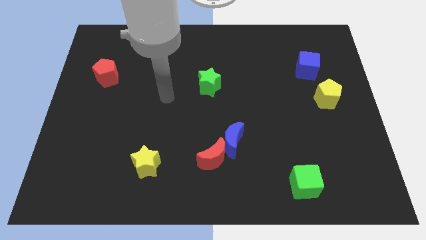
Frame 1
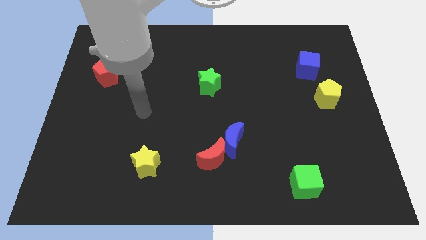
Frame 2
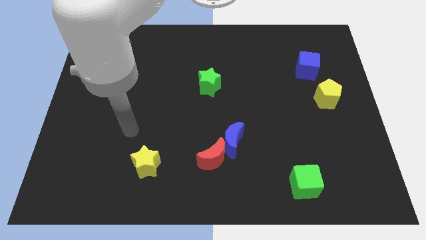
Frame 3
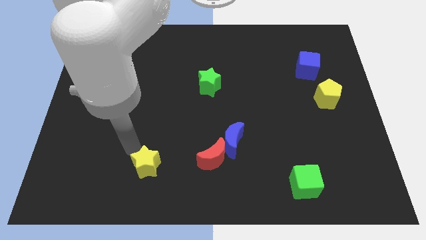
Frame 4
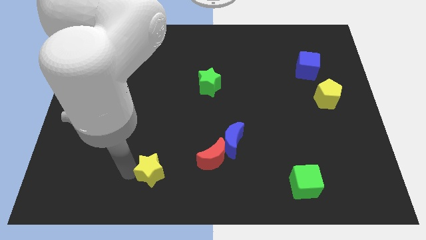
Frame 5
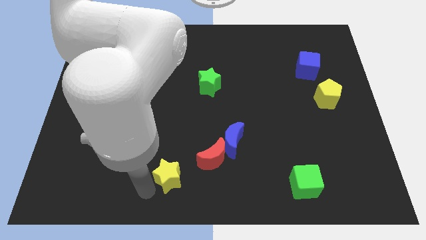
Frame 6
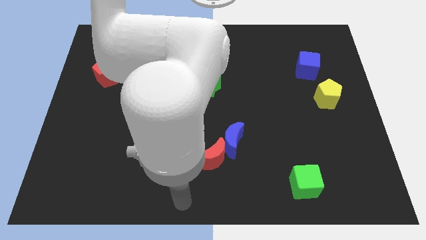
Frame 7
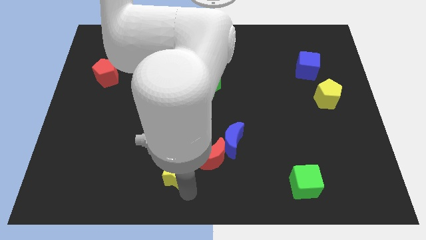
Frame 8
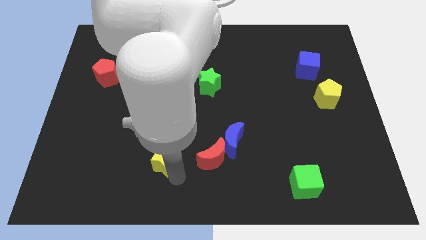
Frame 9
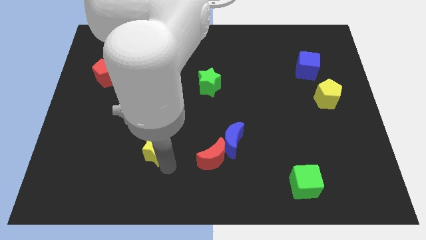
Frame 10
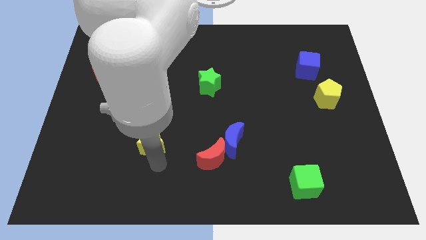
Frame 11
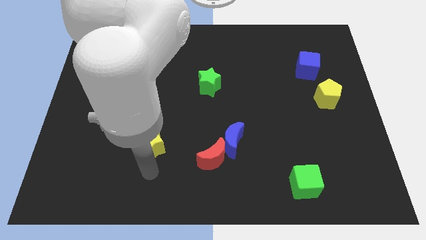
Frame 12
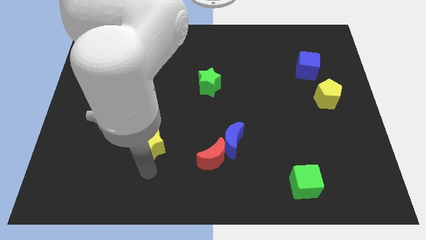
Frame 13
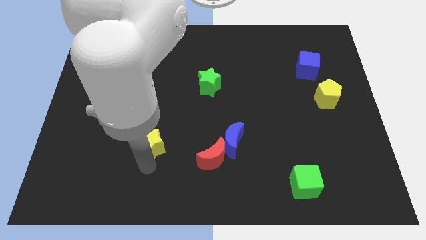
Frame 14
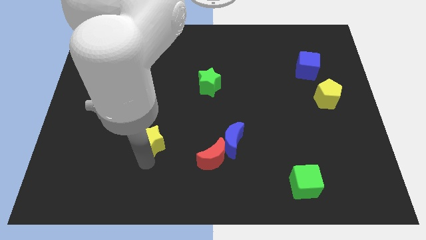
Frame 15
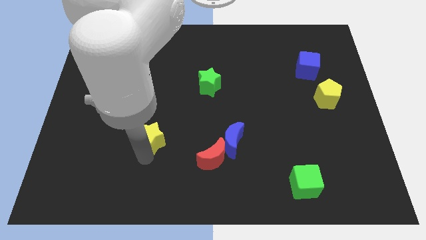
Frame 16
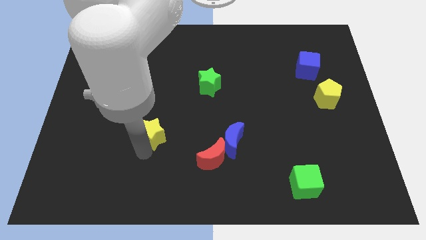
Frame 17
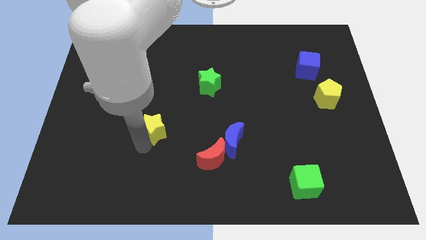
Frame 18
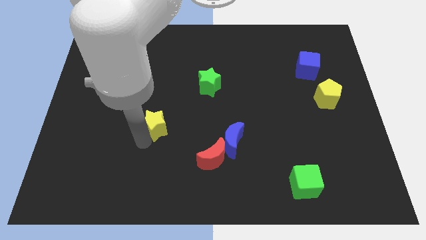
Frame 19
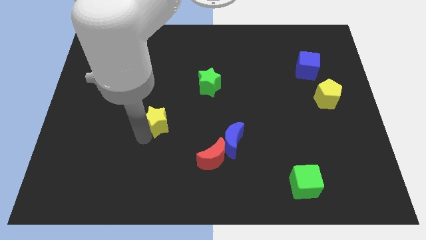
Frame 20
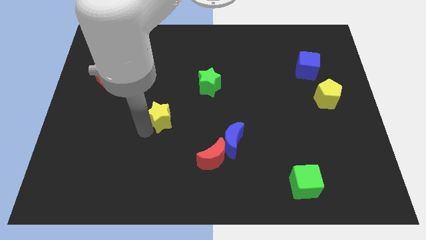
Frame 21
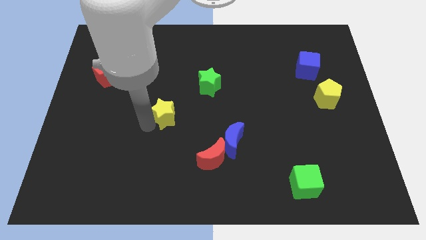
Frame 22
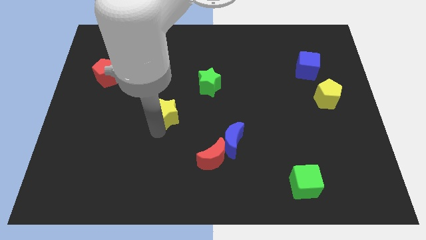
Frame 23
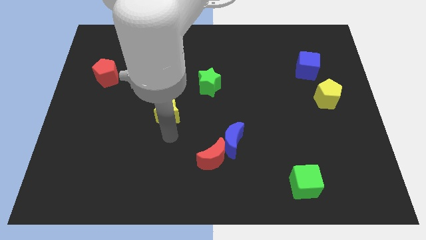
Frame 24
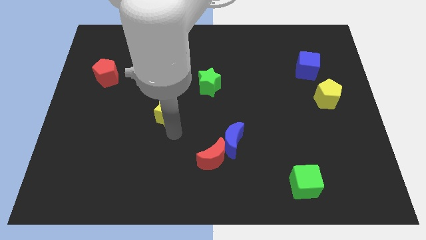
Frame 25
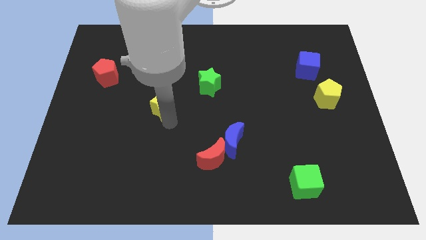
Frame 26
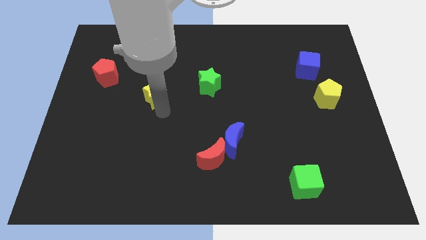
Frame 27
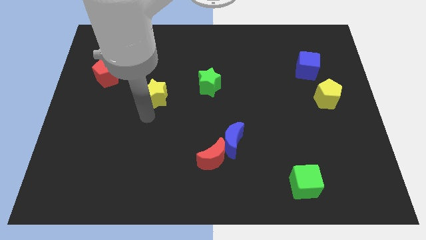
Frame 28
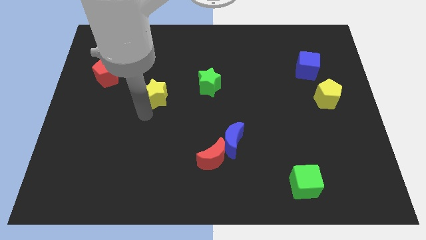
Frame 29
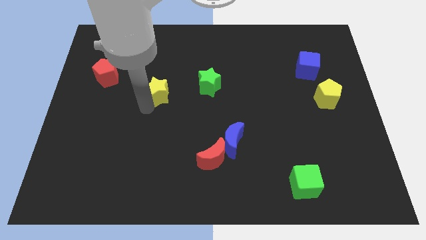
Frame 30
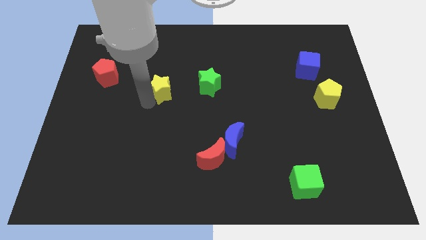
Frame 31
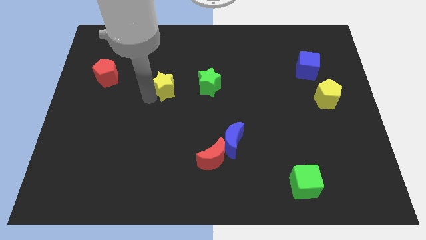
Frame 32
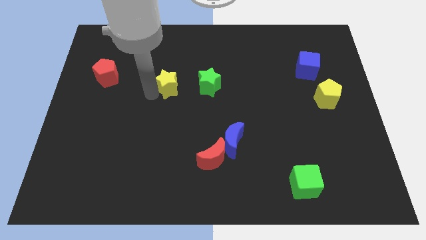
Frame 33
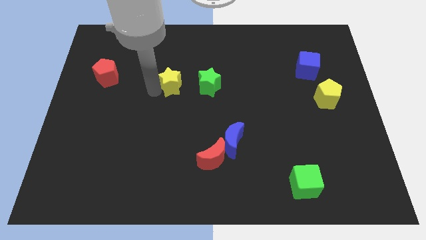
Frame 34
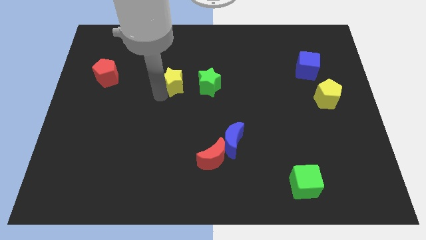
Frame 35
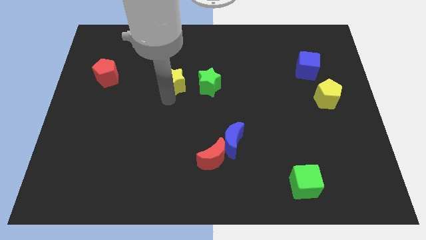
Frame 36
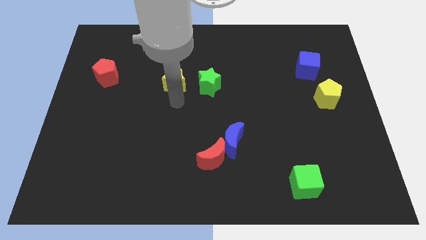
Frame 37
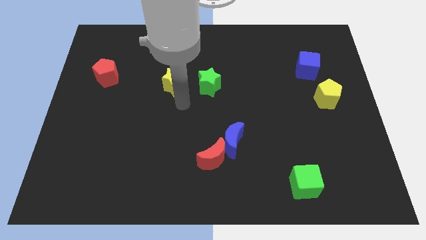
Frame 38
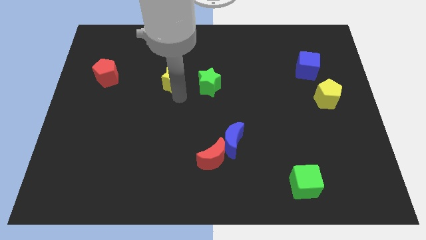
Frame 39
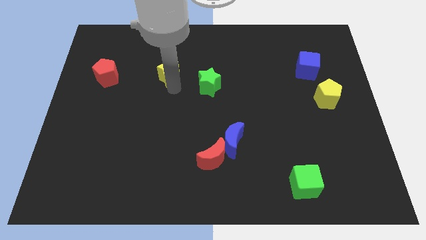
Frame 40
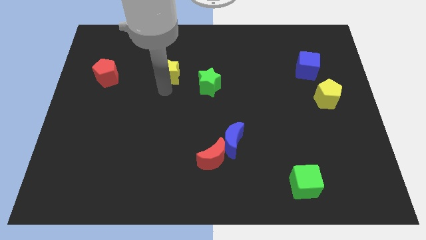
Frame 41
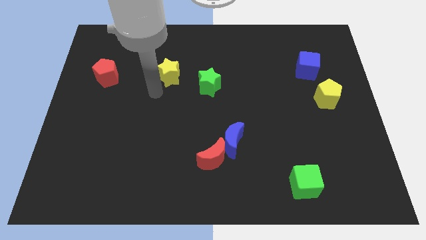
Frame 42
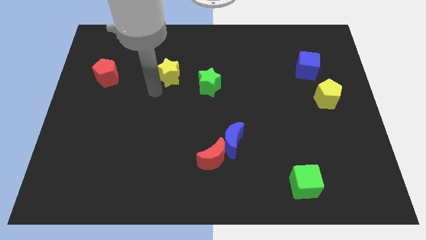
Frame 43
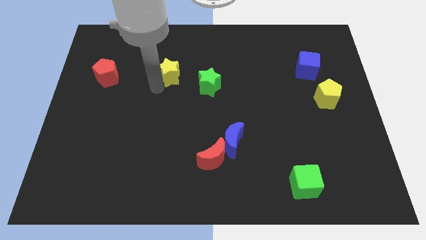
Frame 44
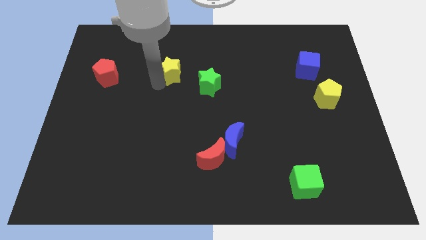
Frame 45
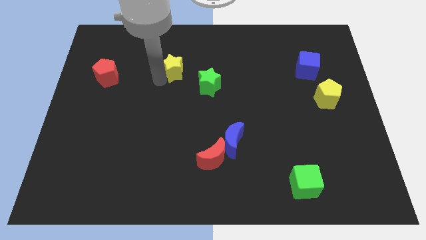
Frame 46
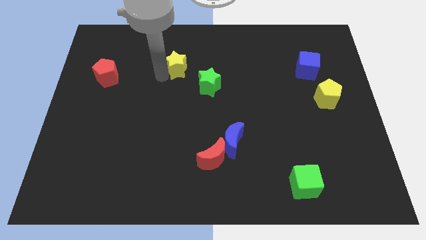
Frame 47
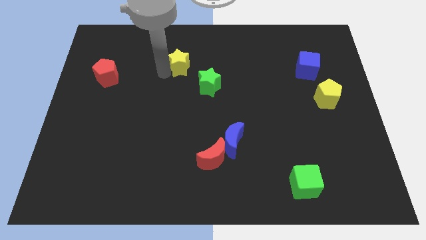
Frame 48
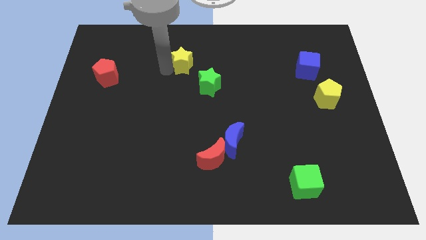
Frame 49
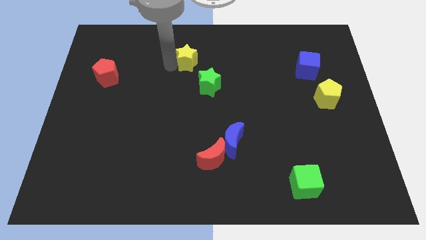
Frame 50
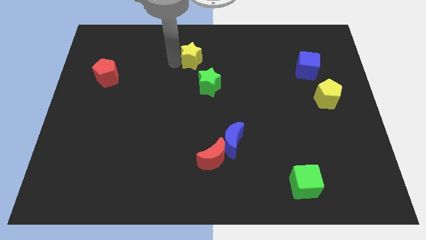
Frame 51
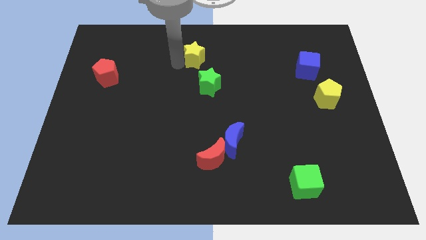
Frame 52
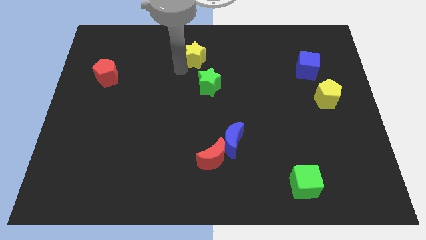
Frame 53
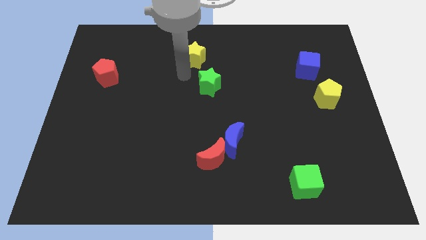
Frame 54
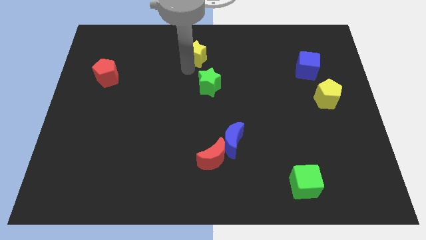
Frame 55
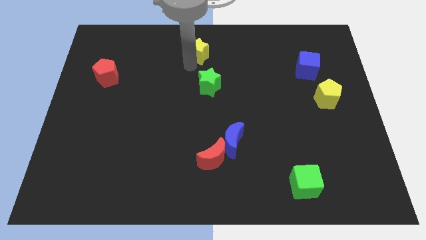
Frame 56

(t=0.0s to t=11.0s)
move the yellow star to the towards your base

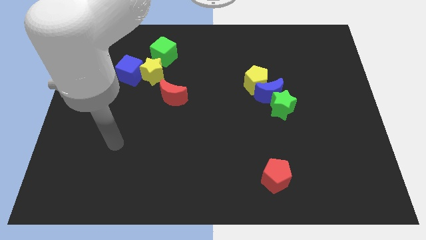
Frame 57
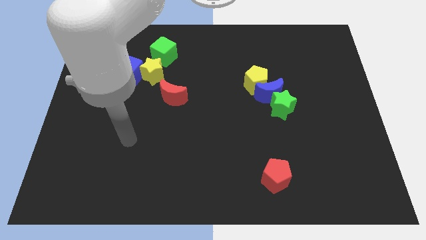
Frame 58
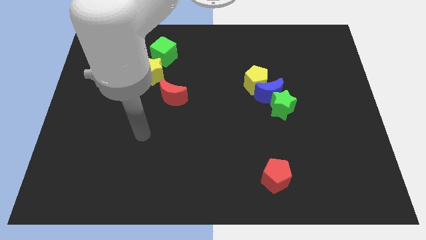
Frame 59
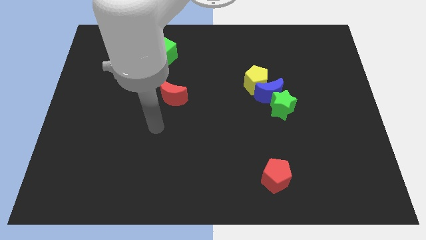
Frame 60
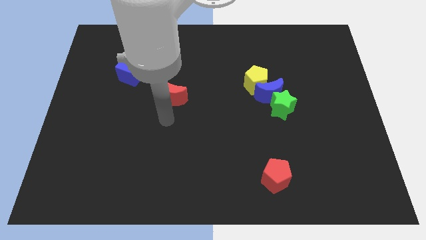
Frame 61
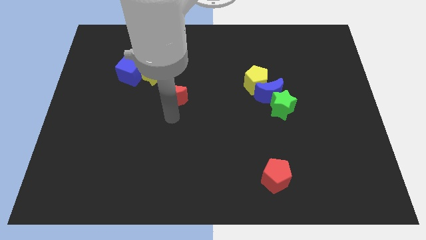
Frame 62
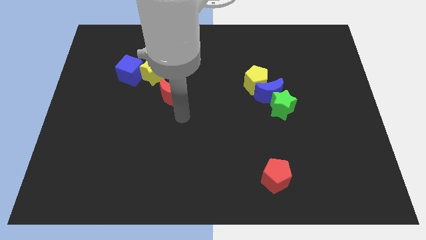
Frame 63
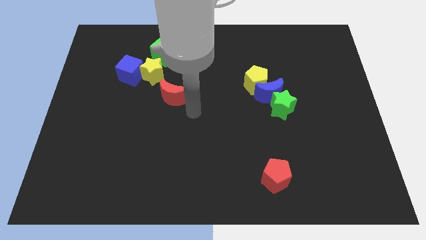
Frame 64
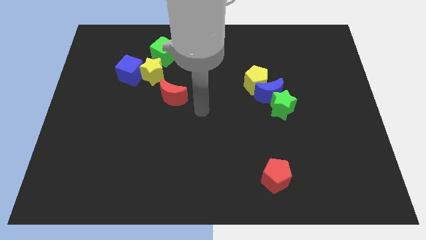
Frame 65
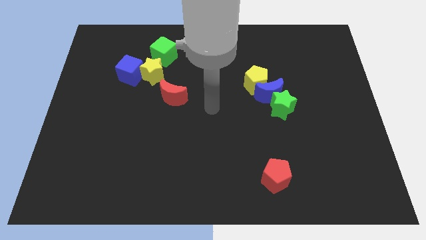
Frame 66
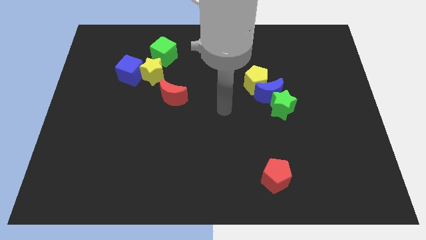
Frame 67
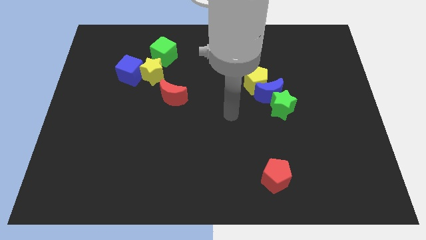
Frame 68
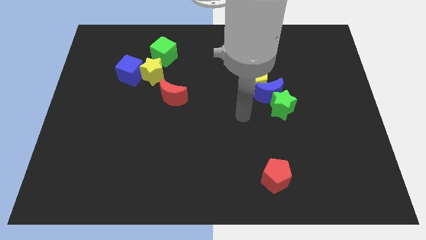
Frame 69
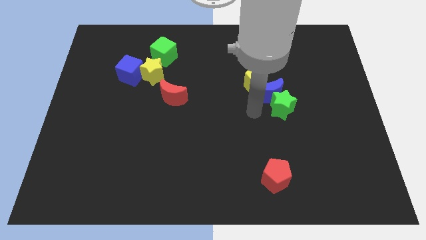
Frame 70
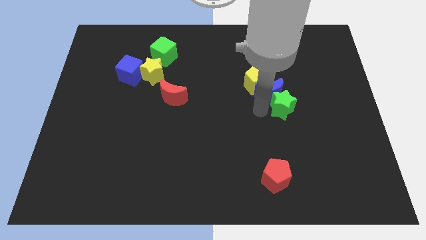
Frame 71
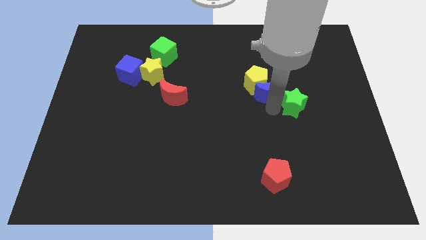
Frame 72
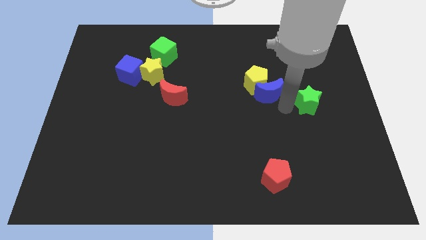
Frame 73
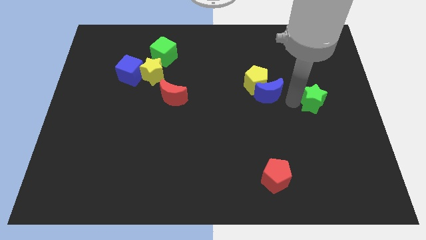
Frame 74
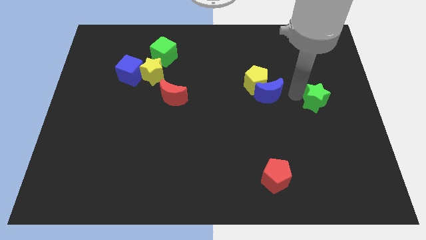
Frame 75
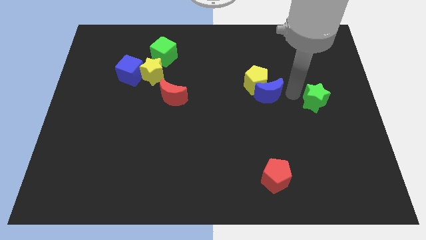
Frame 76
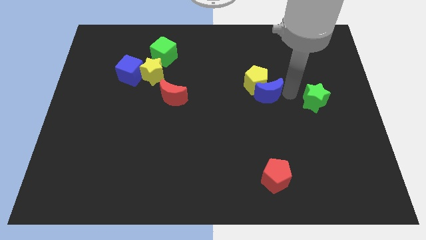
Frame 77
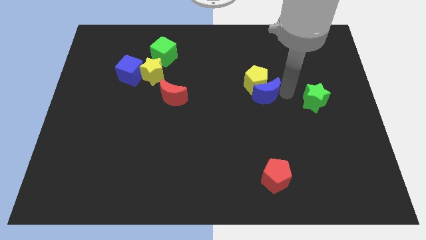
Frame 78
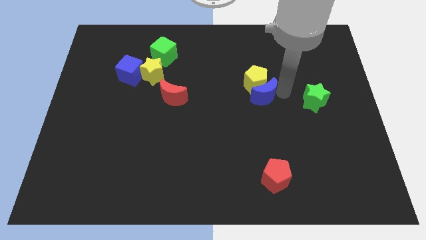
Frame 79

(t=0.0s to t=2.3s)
slide the blue moon to the middle of the board
